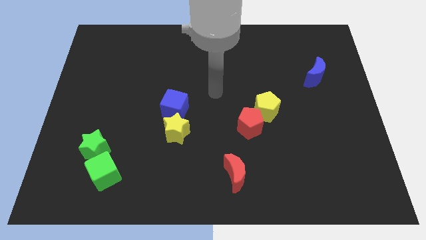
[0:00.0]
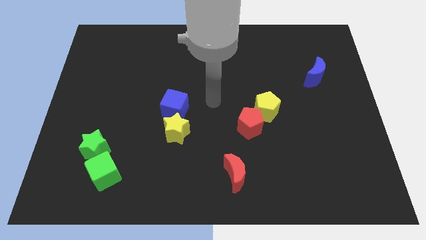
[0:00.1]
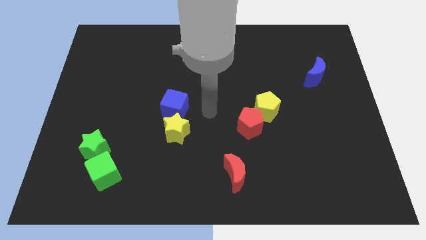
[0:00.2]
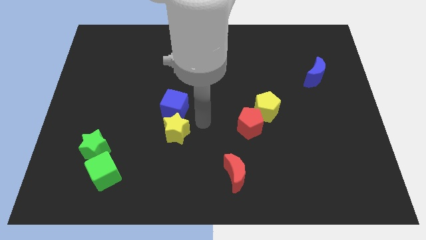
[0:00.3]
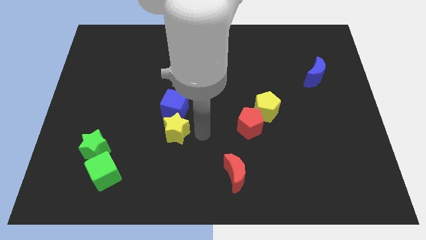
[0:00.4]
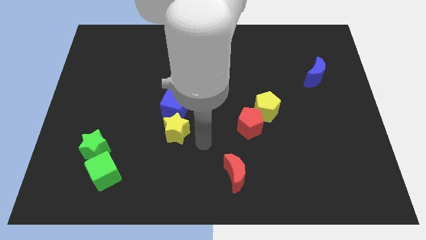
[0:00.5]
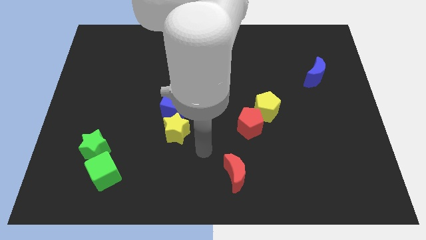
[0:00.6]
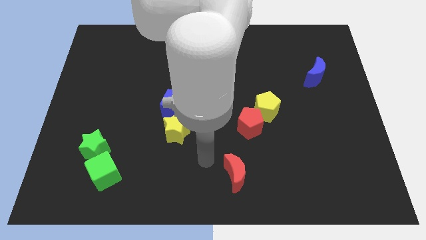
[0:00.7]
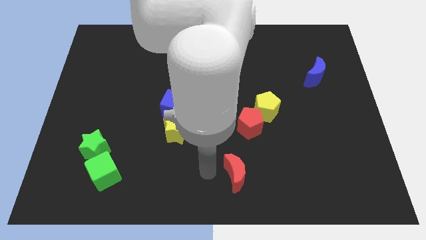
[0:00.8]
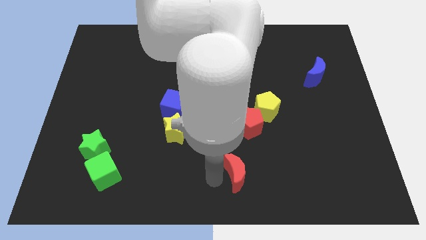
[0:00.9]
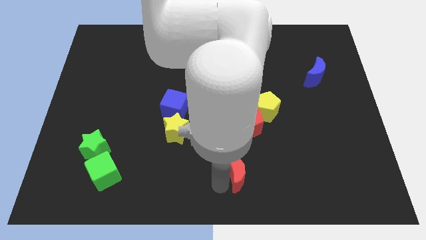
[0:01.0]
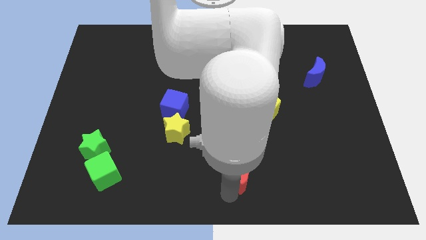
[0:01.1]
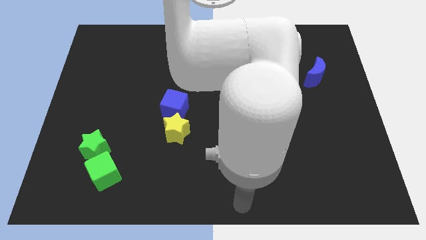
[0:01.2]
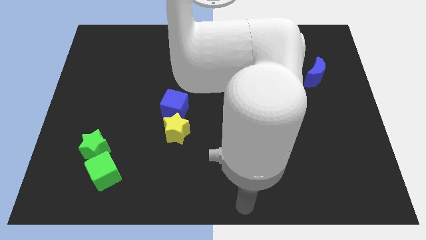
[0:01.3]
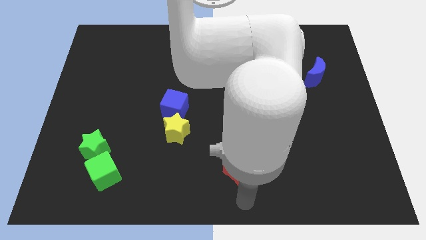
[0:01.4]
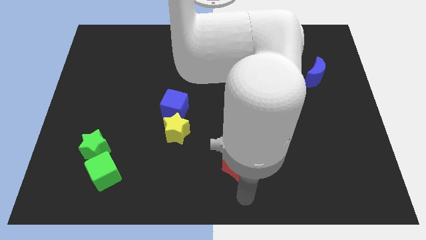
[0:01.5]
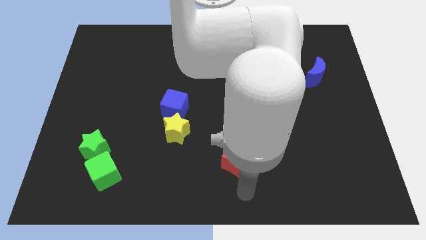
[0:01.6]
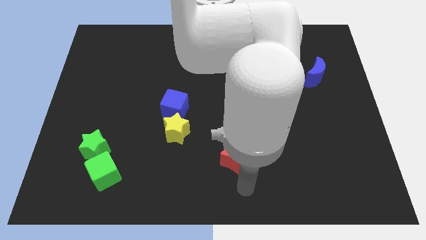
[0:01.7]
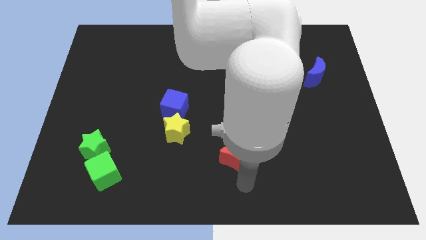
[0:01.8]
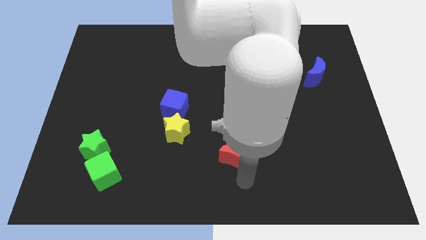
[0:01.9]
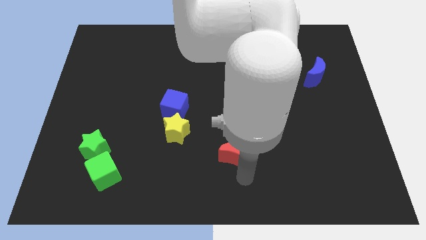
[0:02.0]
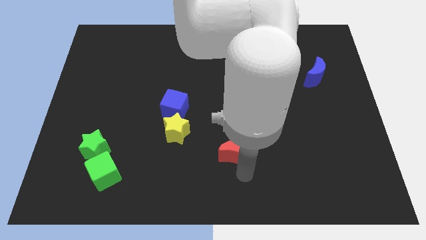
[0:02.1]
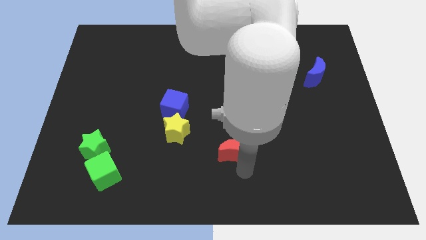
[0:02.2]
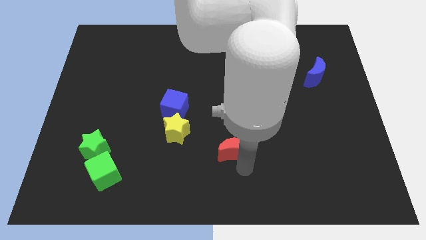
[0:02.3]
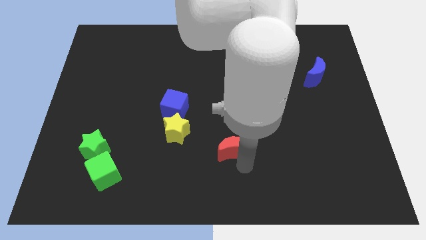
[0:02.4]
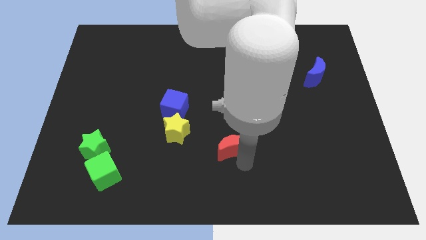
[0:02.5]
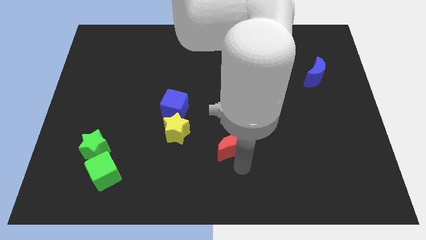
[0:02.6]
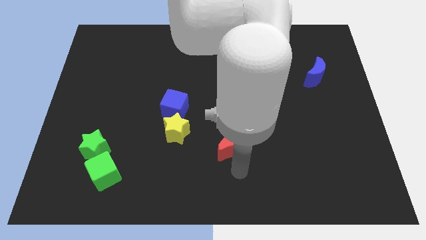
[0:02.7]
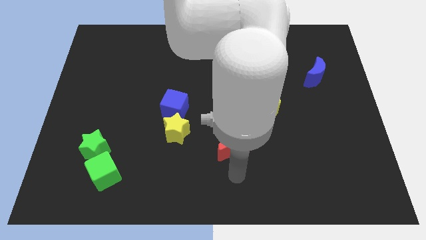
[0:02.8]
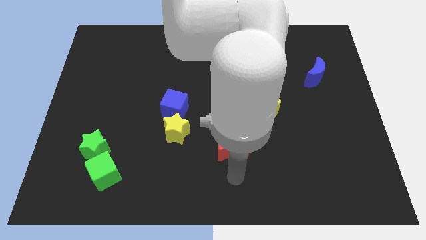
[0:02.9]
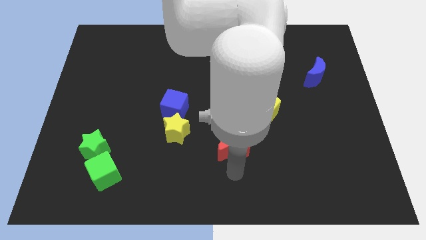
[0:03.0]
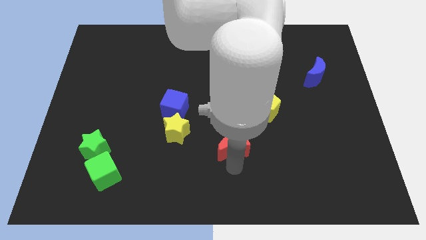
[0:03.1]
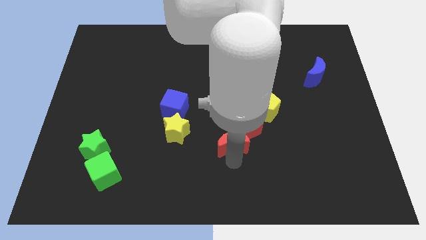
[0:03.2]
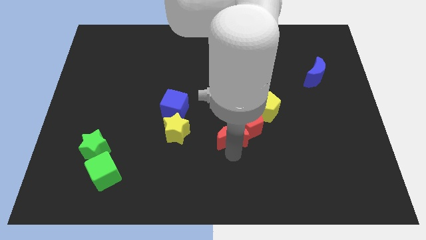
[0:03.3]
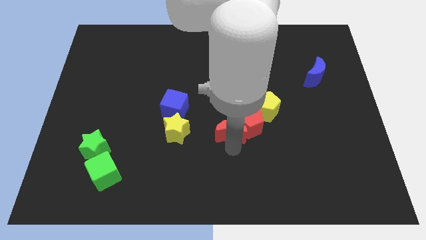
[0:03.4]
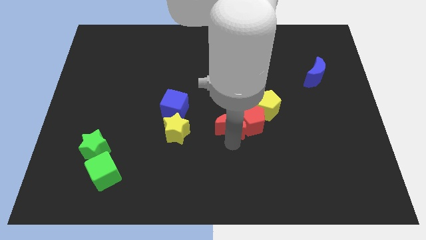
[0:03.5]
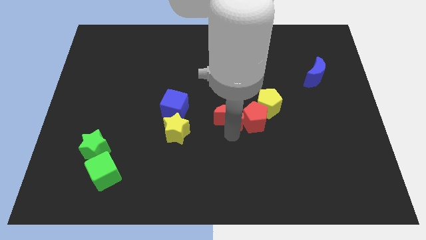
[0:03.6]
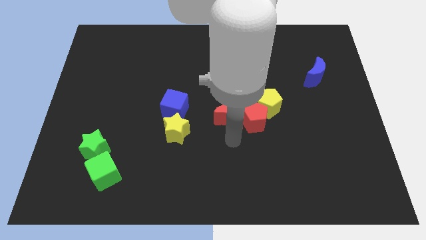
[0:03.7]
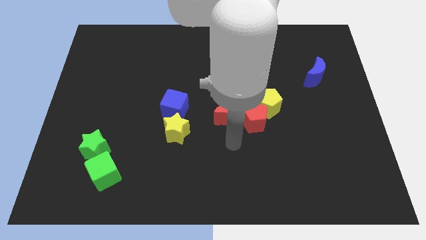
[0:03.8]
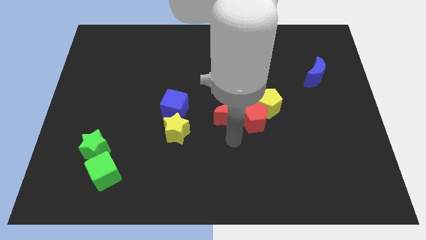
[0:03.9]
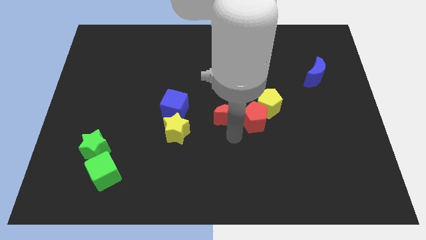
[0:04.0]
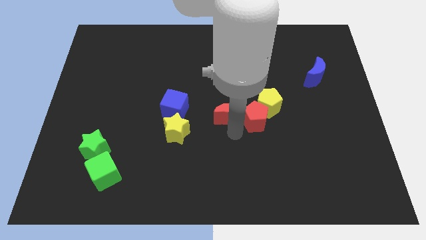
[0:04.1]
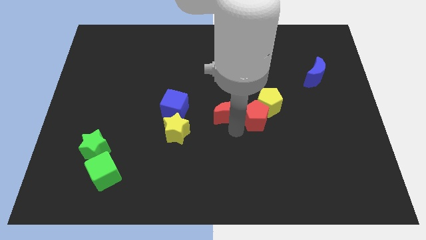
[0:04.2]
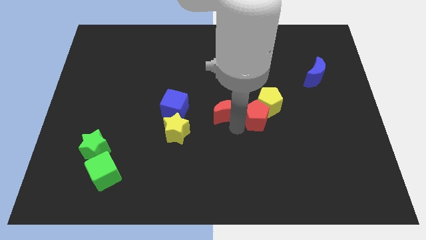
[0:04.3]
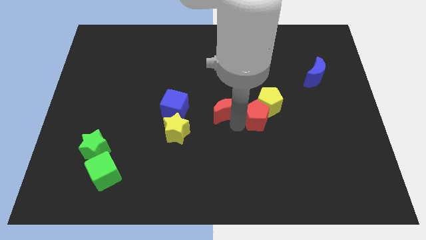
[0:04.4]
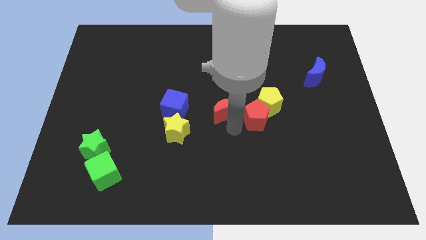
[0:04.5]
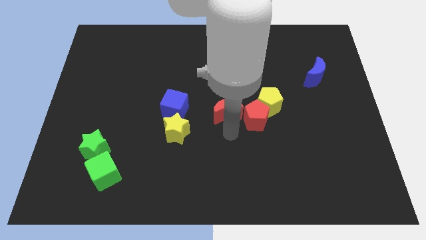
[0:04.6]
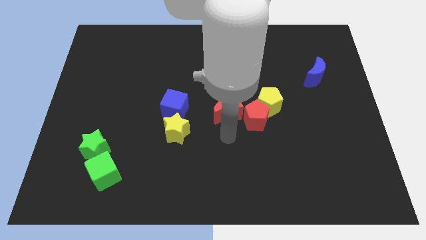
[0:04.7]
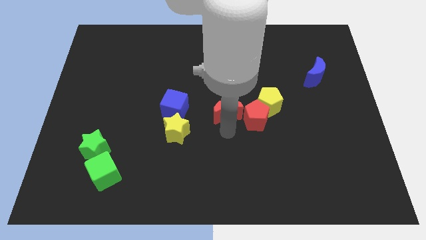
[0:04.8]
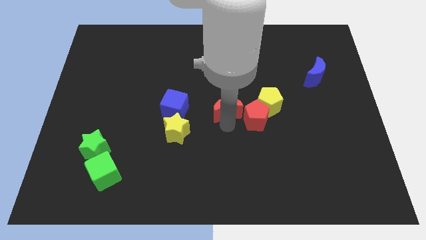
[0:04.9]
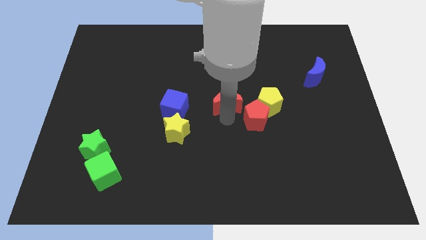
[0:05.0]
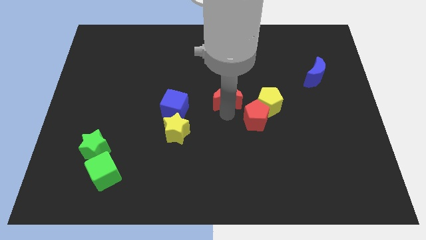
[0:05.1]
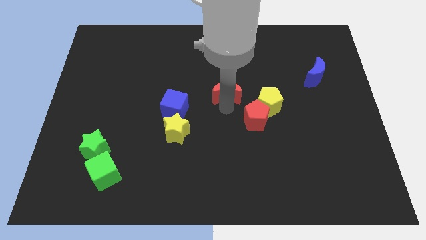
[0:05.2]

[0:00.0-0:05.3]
move the red moon up

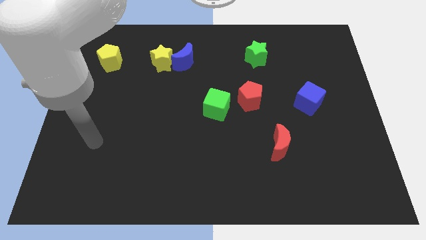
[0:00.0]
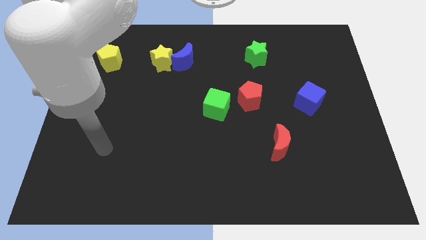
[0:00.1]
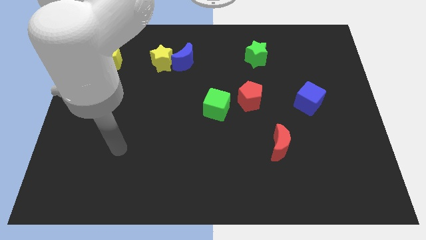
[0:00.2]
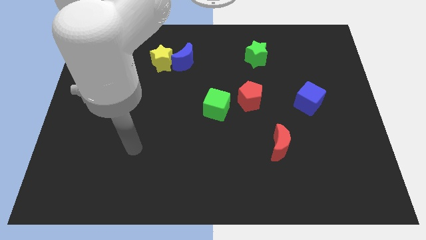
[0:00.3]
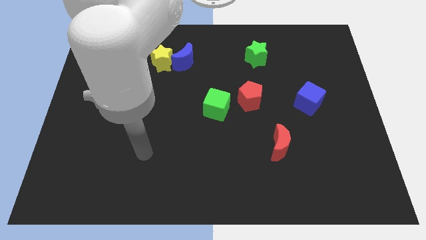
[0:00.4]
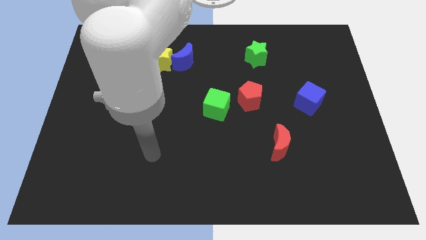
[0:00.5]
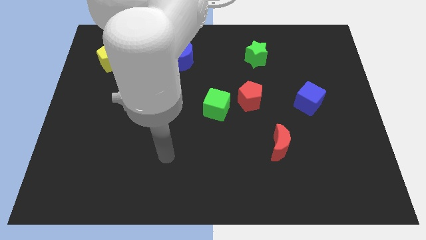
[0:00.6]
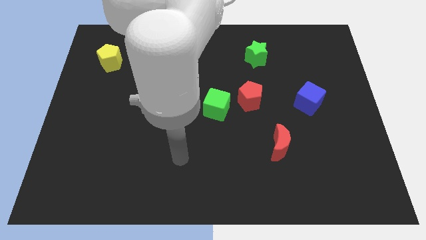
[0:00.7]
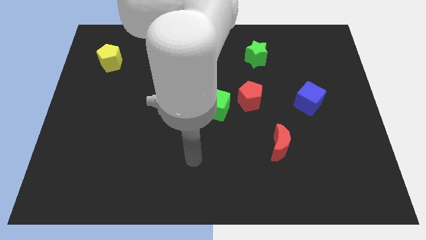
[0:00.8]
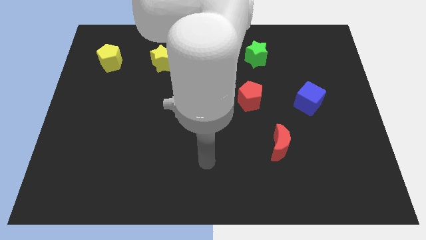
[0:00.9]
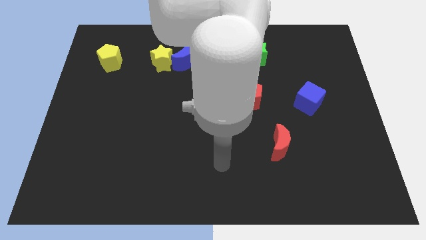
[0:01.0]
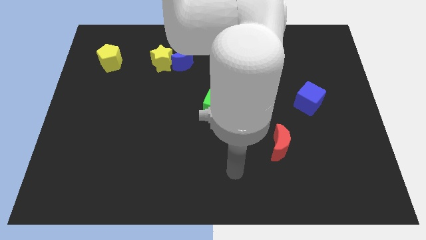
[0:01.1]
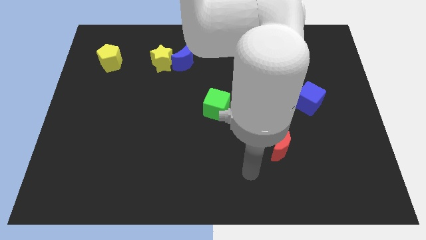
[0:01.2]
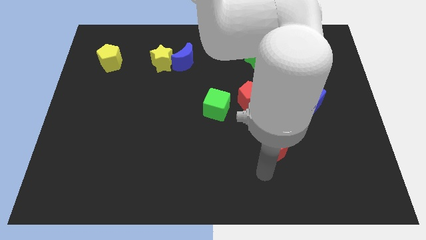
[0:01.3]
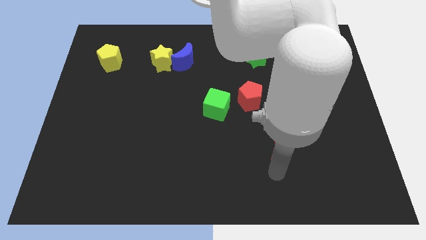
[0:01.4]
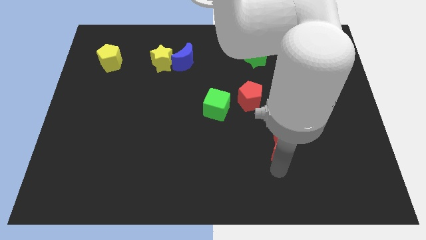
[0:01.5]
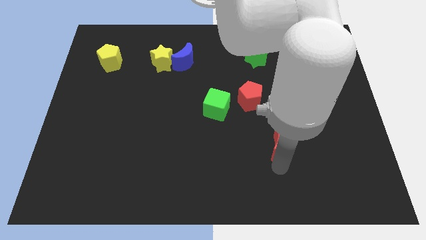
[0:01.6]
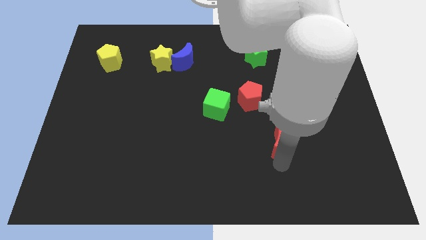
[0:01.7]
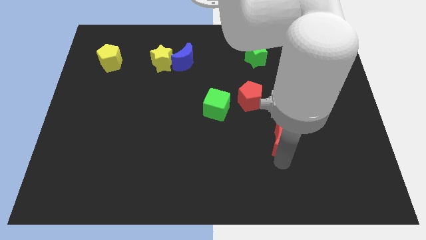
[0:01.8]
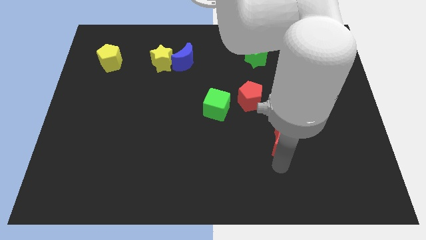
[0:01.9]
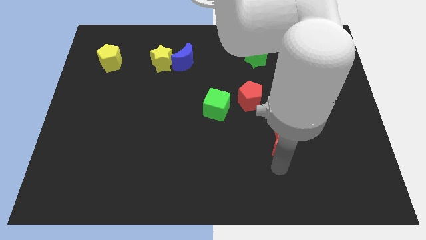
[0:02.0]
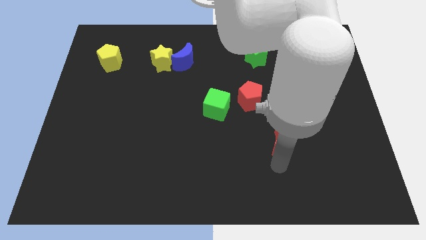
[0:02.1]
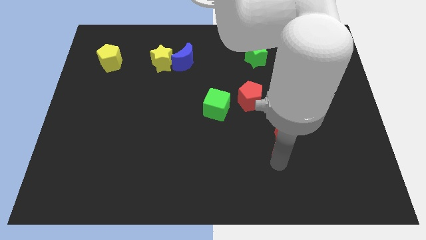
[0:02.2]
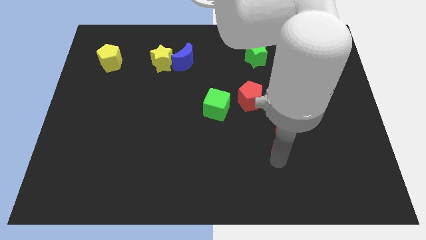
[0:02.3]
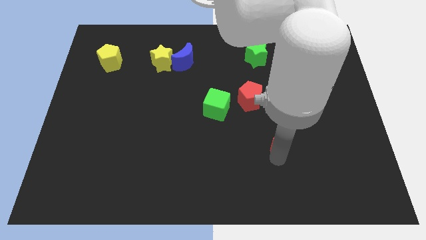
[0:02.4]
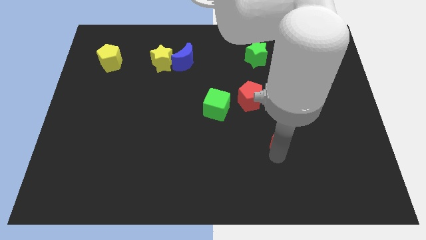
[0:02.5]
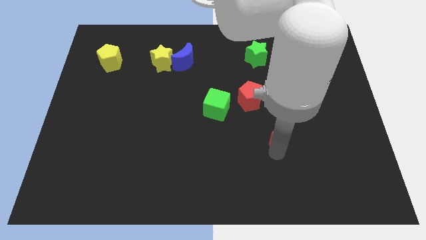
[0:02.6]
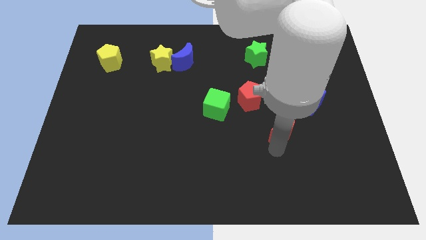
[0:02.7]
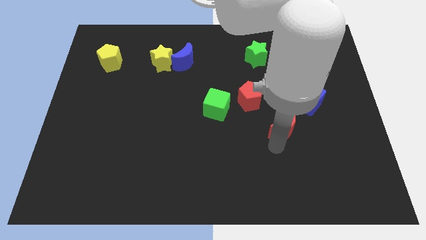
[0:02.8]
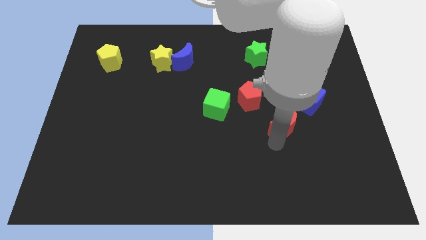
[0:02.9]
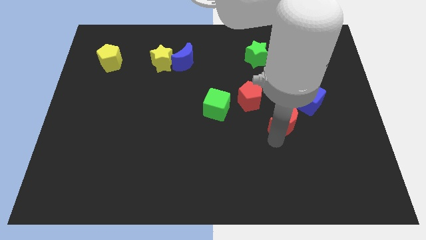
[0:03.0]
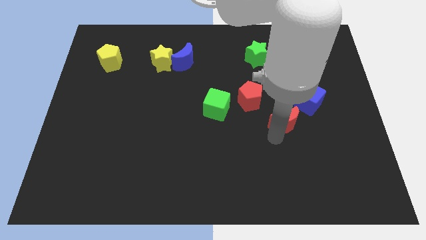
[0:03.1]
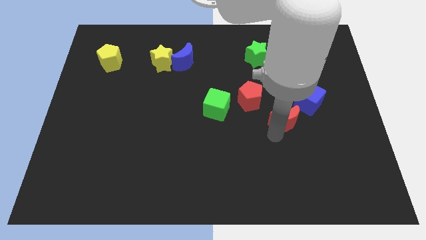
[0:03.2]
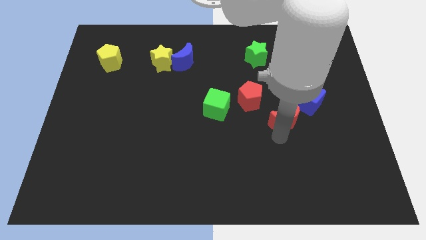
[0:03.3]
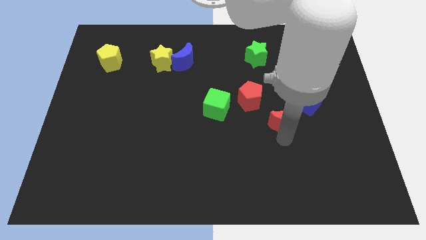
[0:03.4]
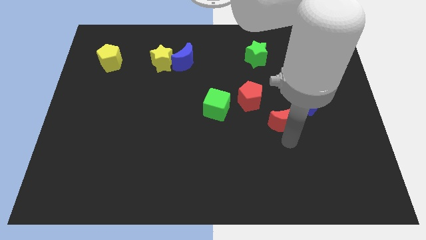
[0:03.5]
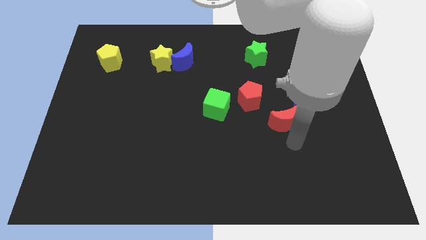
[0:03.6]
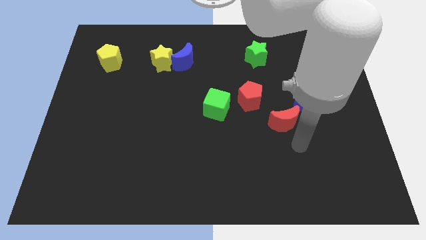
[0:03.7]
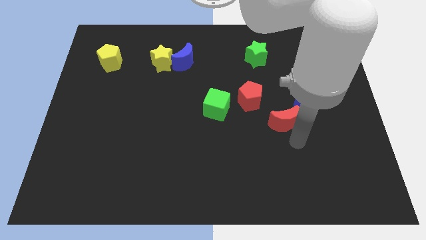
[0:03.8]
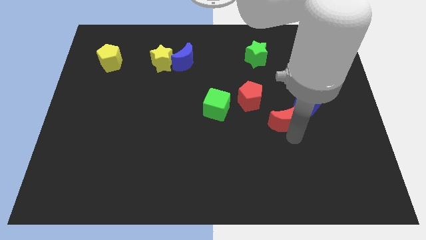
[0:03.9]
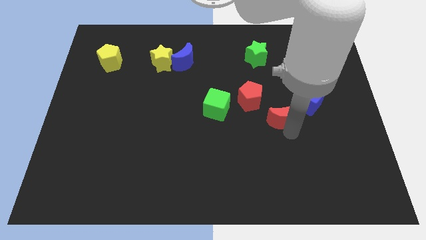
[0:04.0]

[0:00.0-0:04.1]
push the red moon a little bit upwards
